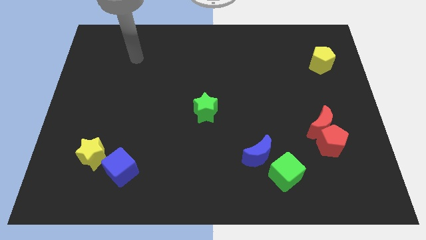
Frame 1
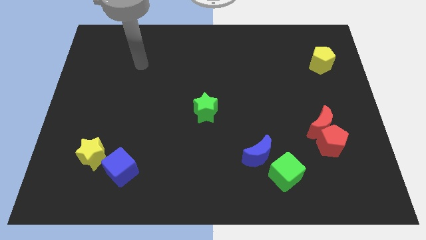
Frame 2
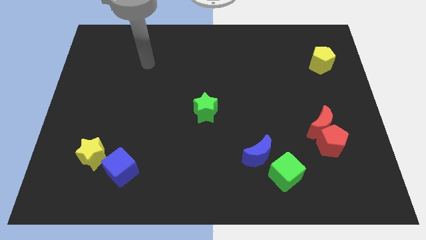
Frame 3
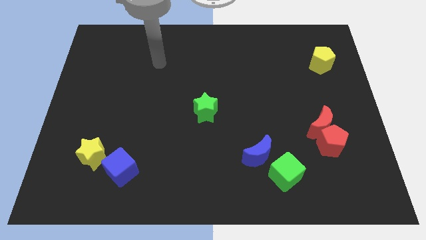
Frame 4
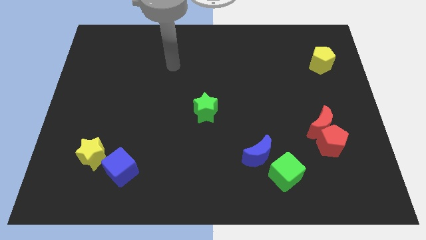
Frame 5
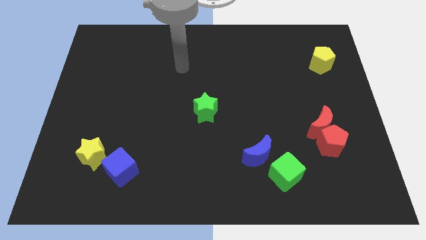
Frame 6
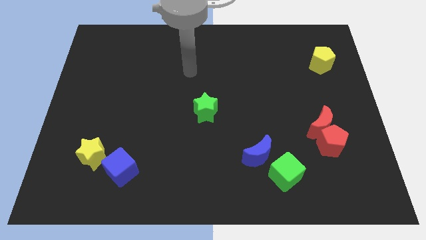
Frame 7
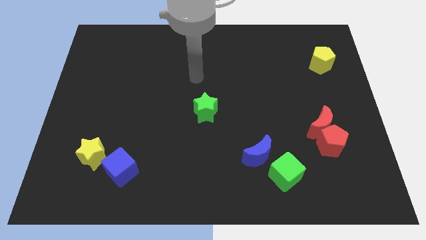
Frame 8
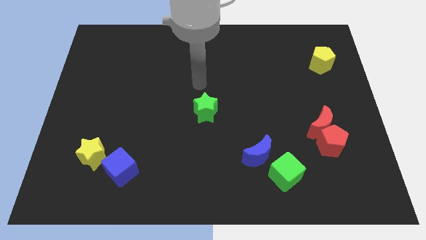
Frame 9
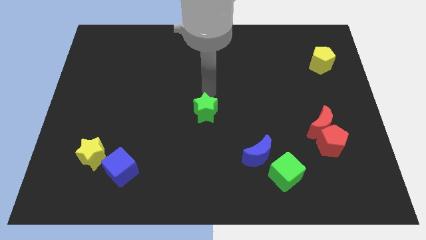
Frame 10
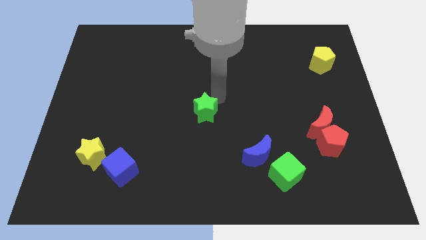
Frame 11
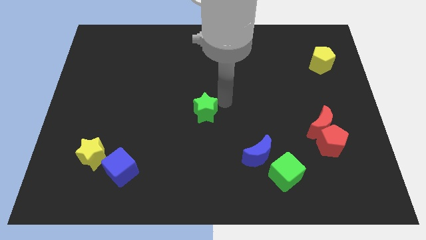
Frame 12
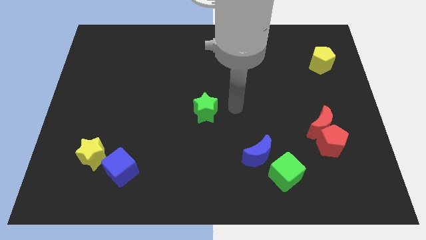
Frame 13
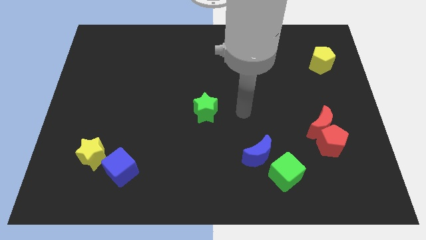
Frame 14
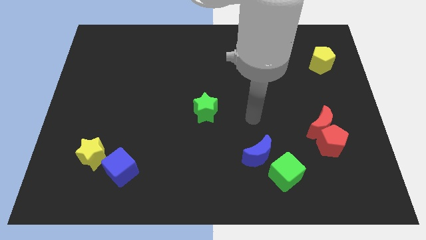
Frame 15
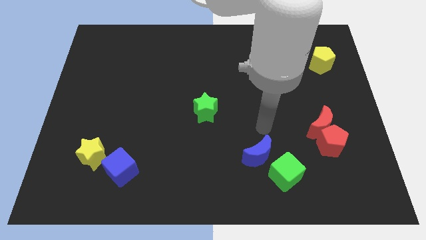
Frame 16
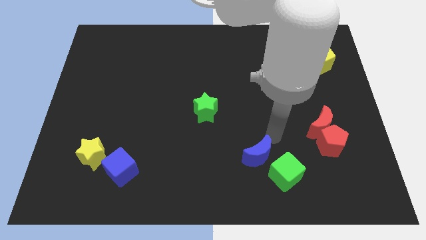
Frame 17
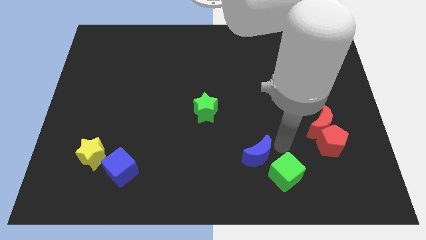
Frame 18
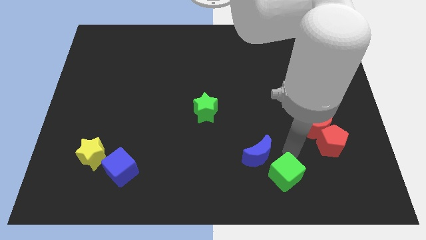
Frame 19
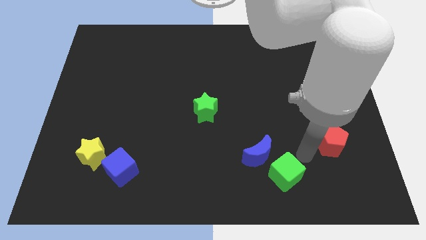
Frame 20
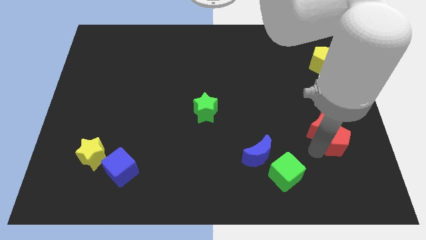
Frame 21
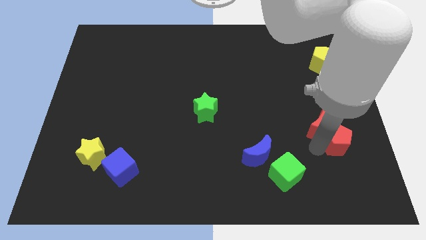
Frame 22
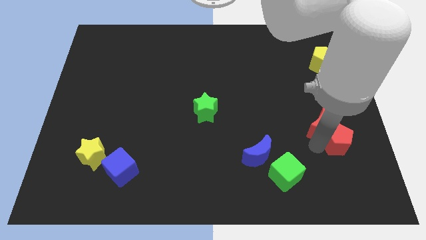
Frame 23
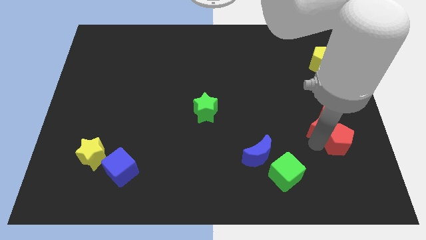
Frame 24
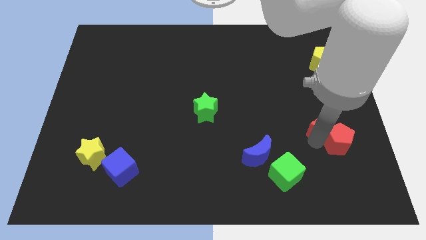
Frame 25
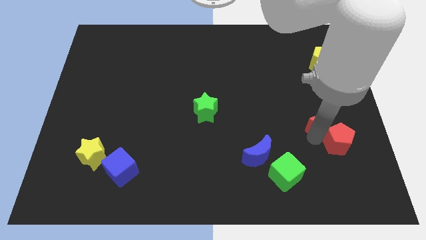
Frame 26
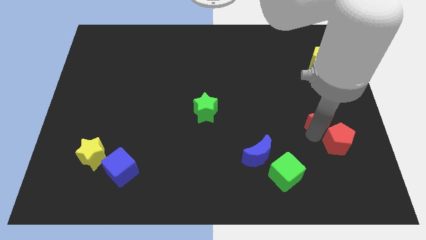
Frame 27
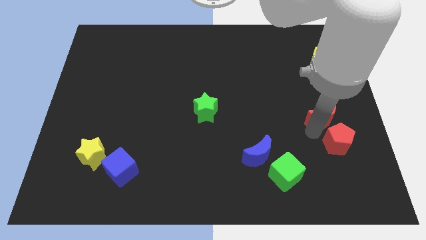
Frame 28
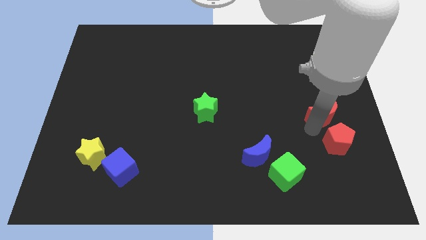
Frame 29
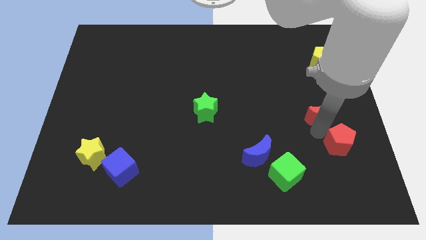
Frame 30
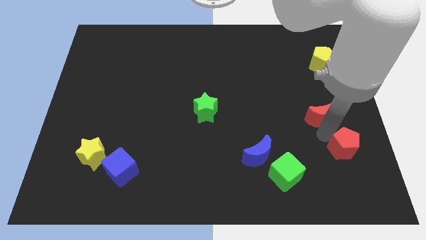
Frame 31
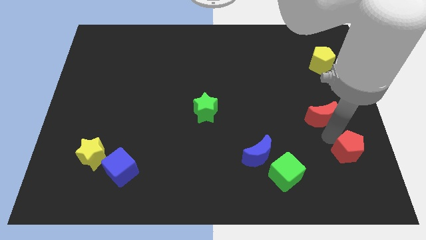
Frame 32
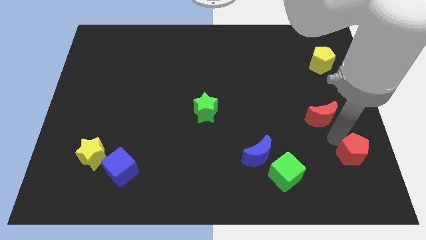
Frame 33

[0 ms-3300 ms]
separate the red moon from the red pentagon

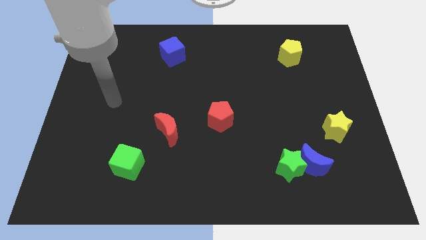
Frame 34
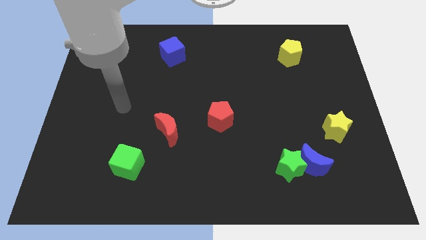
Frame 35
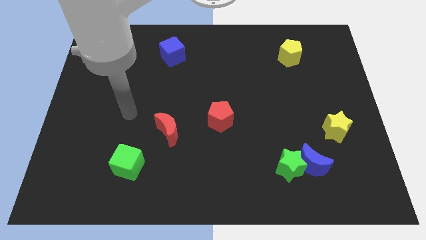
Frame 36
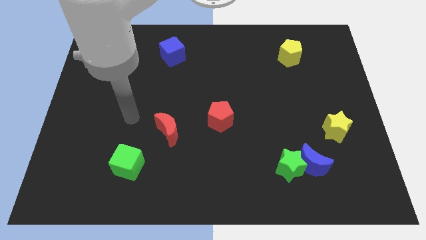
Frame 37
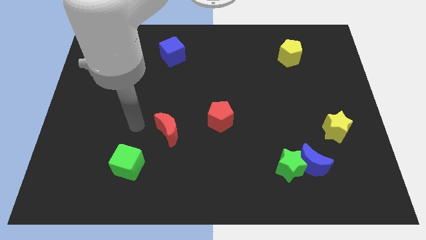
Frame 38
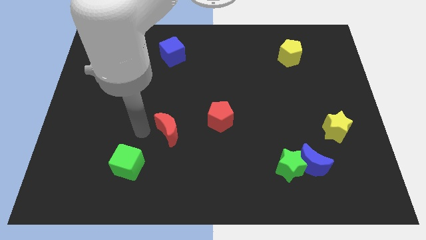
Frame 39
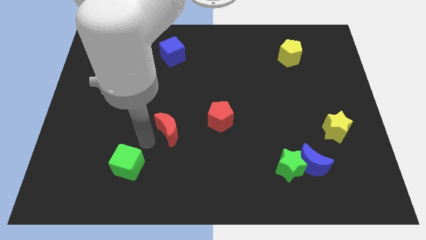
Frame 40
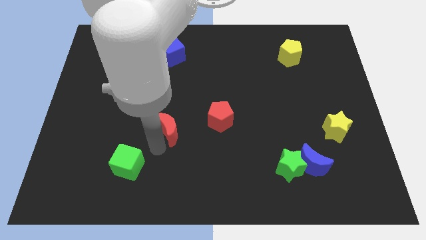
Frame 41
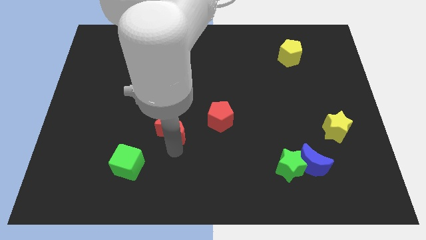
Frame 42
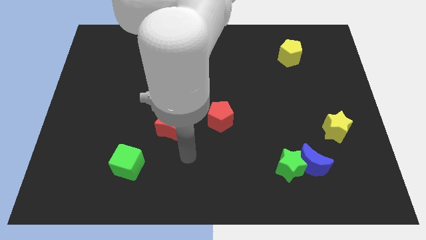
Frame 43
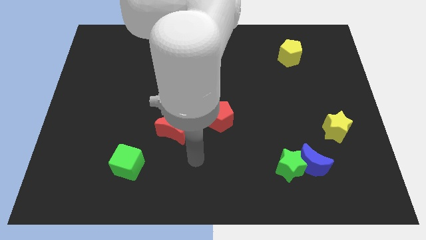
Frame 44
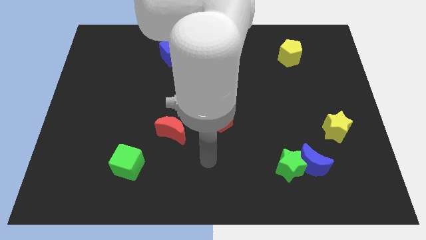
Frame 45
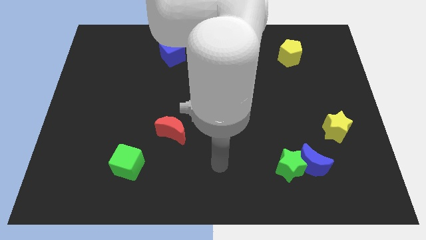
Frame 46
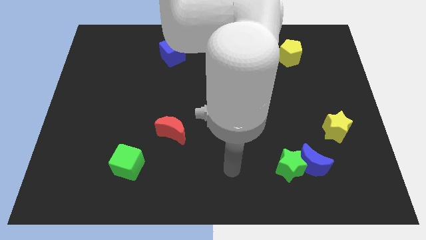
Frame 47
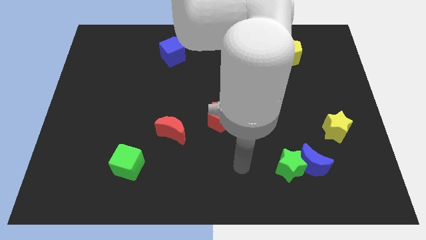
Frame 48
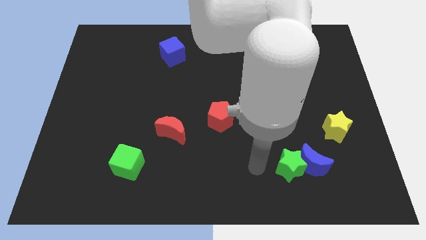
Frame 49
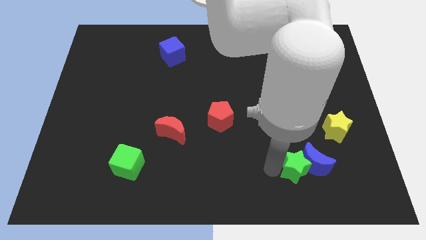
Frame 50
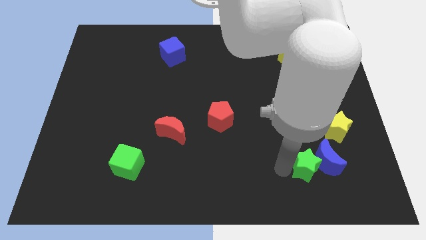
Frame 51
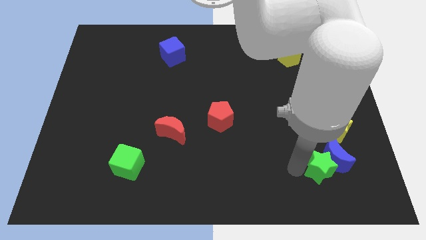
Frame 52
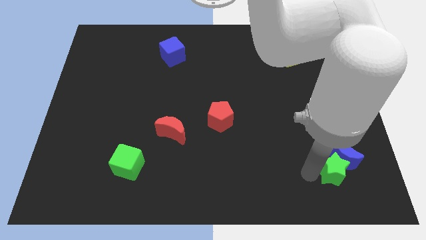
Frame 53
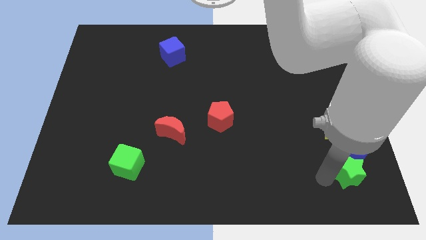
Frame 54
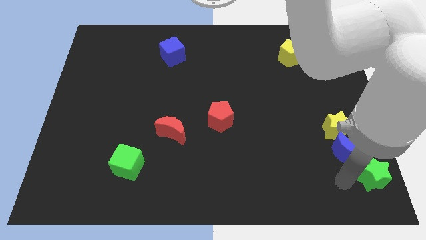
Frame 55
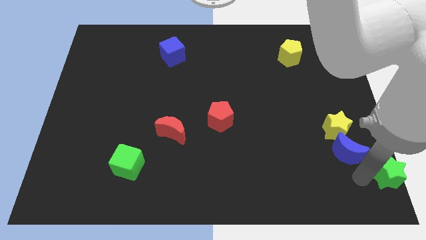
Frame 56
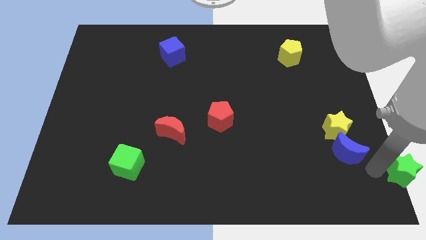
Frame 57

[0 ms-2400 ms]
separate the blue moon from the green star

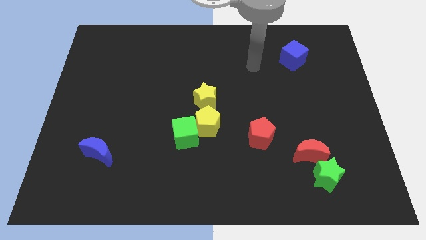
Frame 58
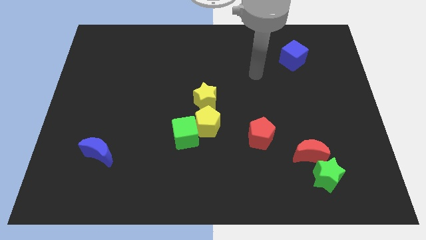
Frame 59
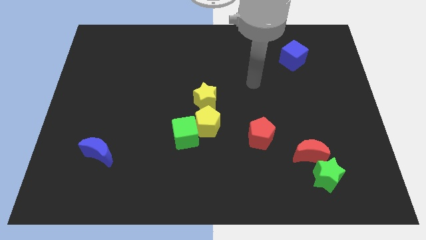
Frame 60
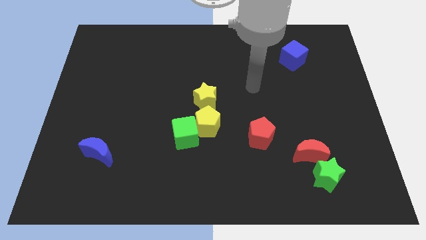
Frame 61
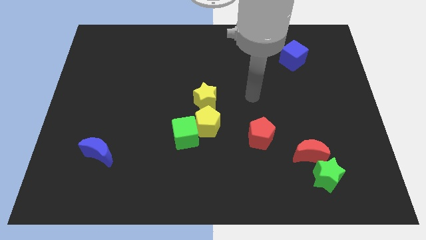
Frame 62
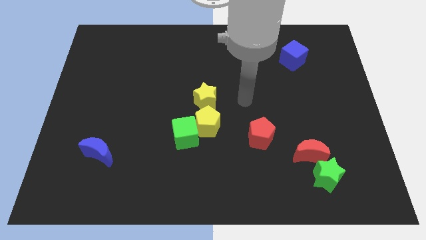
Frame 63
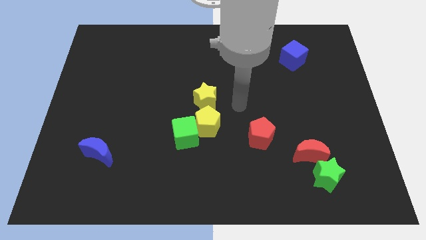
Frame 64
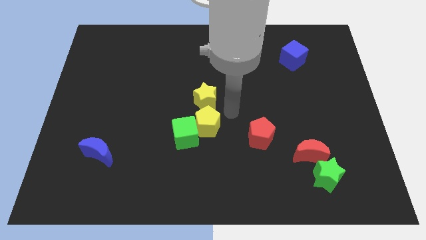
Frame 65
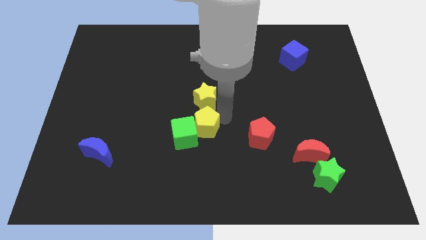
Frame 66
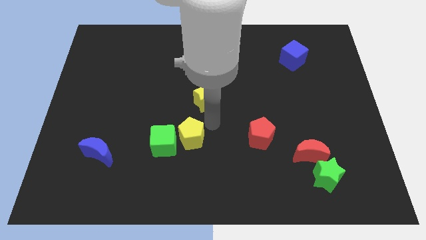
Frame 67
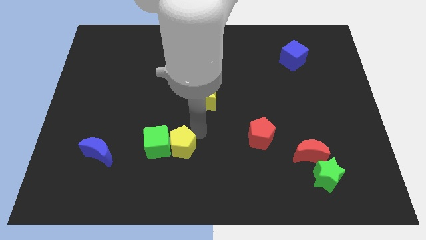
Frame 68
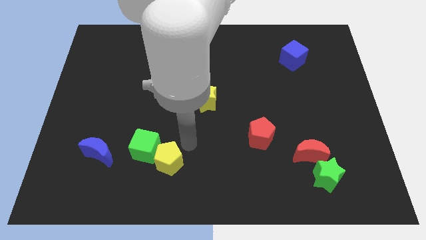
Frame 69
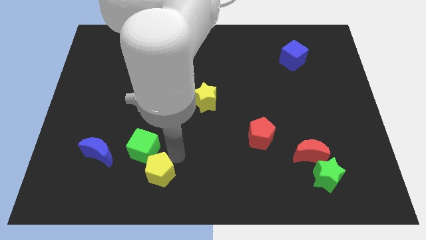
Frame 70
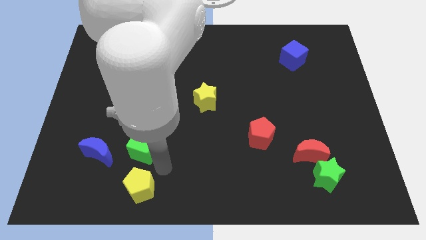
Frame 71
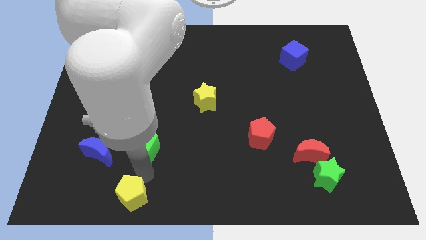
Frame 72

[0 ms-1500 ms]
pull the green cube apart from the yellow pentagon

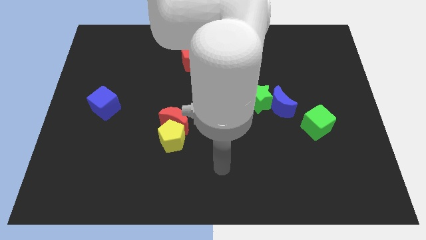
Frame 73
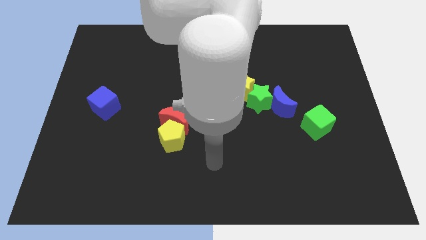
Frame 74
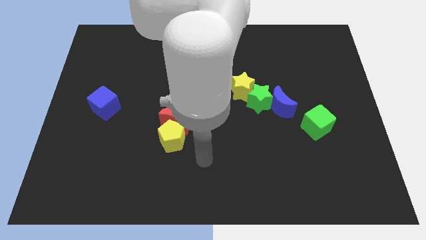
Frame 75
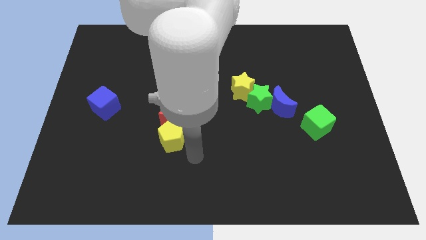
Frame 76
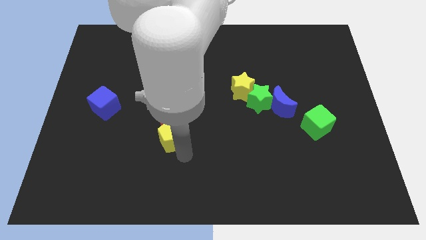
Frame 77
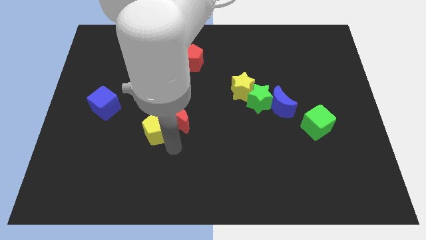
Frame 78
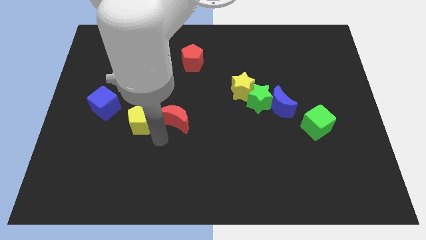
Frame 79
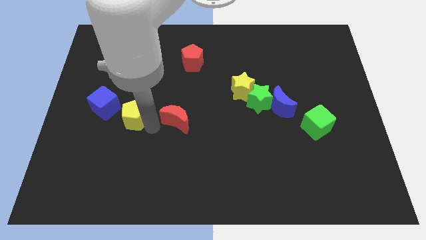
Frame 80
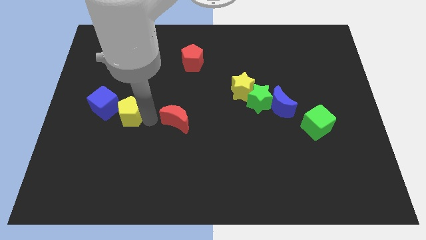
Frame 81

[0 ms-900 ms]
pull the red moon apart from the yellow pentagon

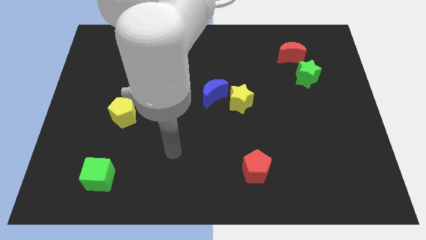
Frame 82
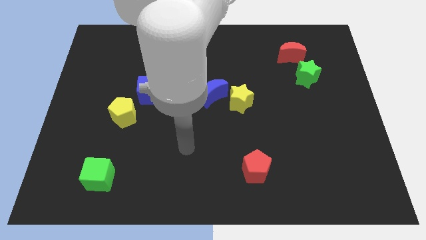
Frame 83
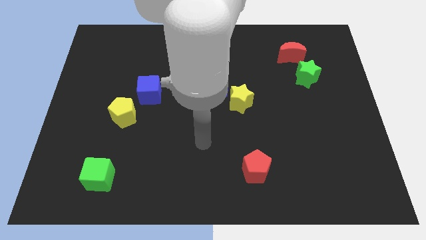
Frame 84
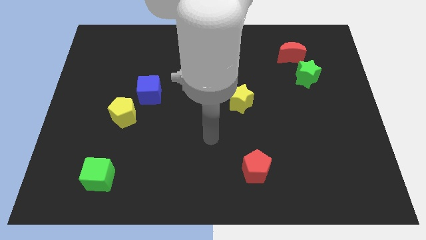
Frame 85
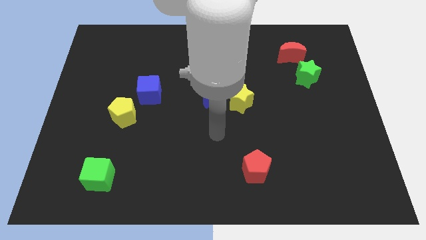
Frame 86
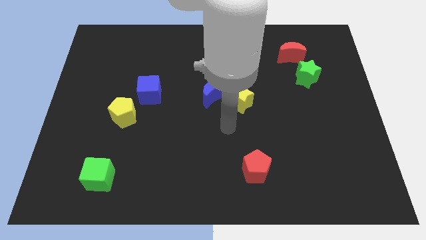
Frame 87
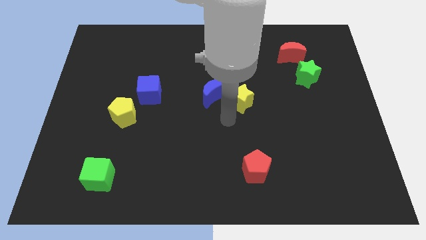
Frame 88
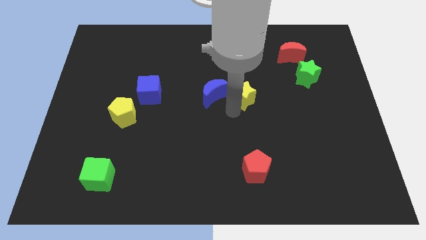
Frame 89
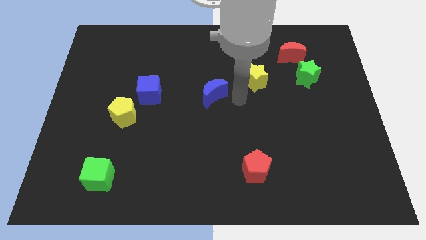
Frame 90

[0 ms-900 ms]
pull the blue moon apart from the yellow star

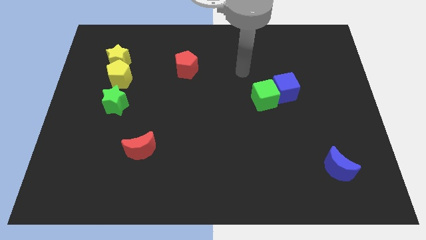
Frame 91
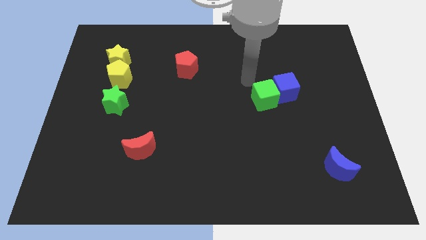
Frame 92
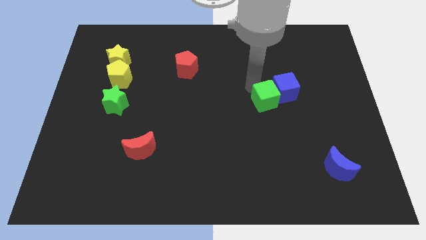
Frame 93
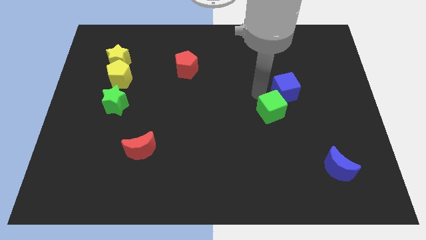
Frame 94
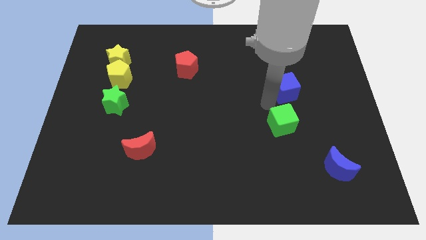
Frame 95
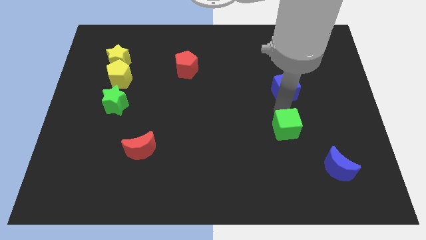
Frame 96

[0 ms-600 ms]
move the blue cube away from the green cube
